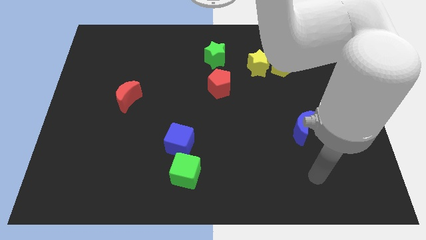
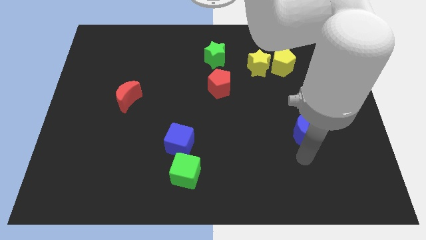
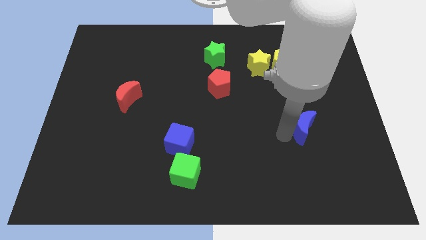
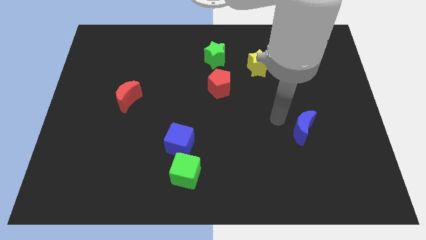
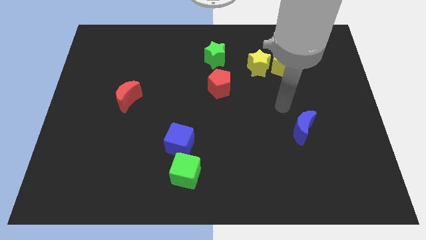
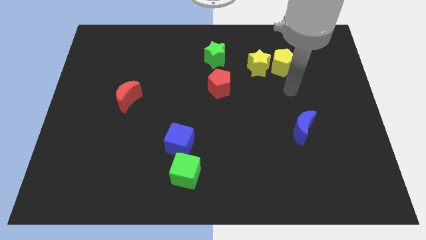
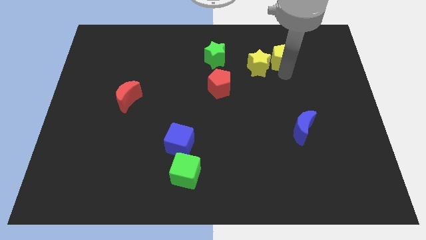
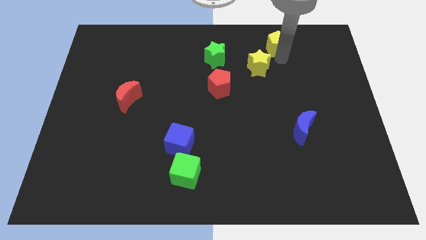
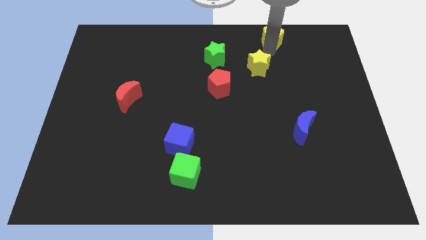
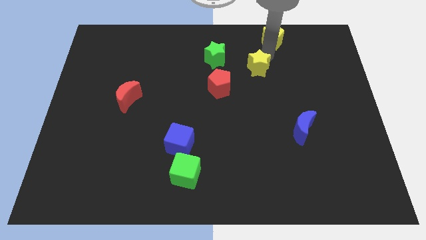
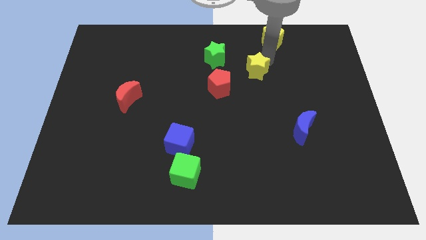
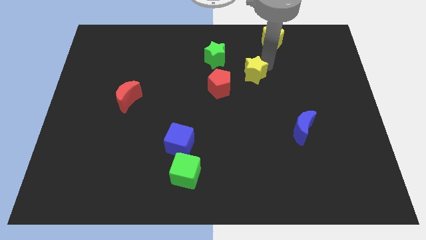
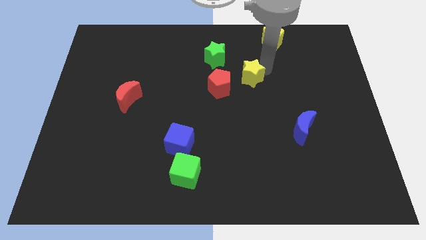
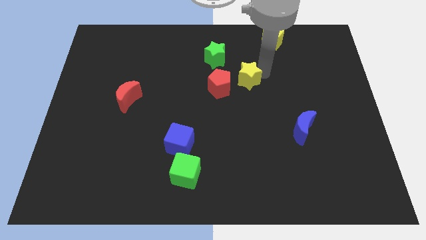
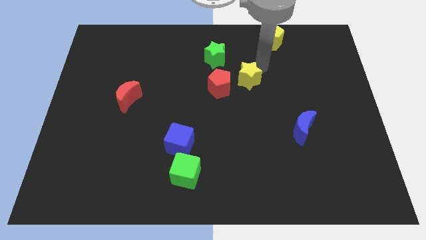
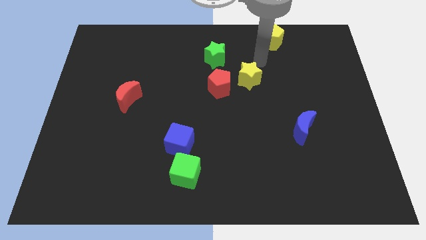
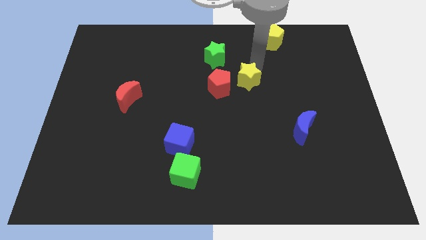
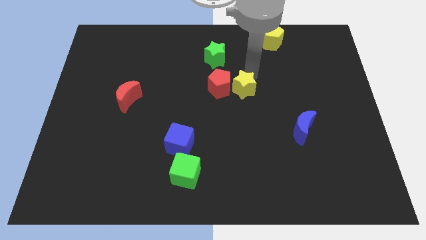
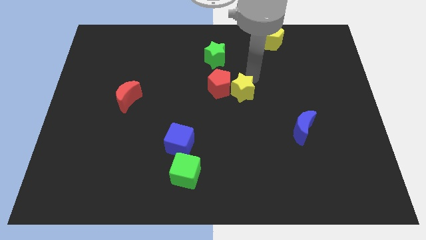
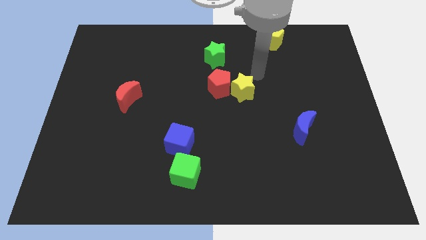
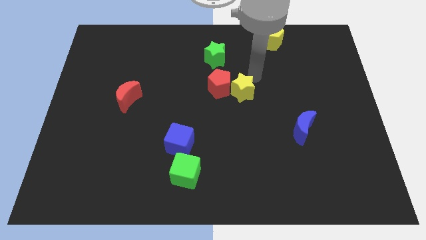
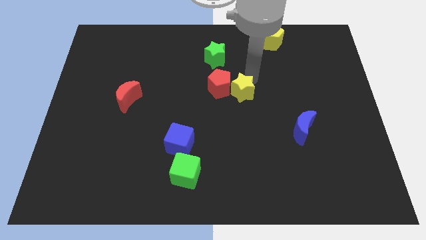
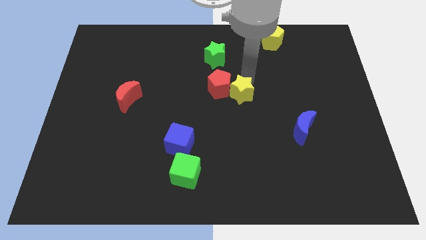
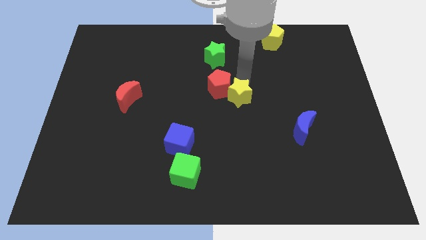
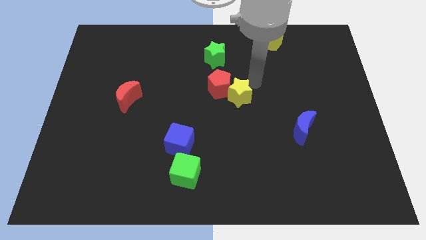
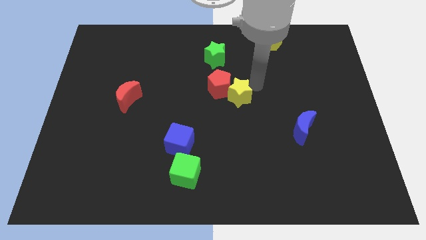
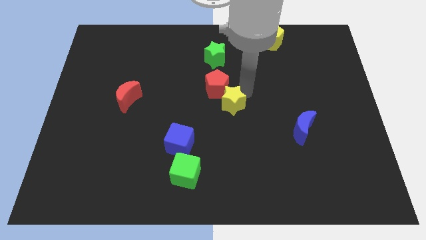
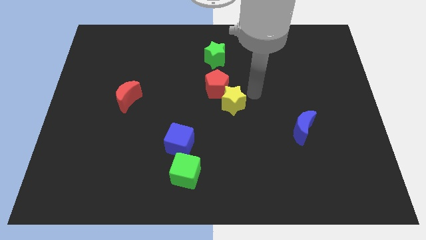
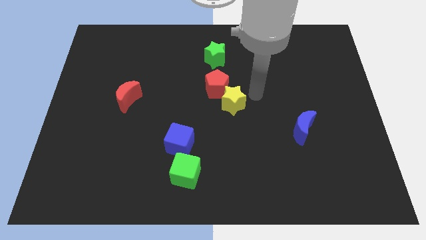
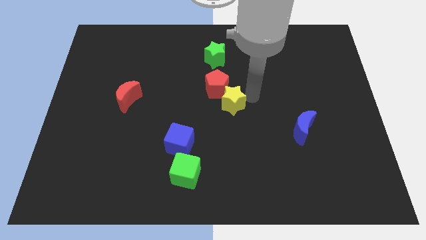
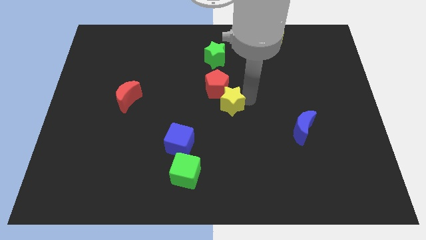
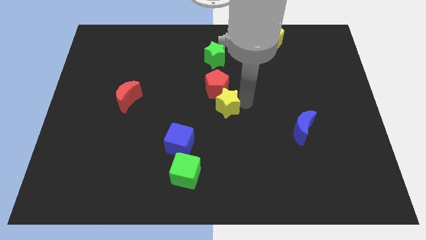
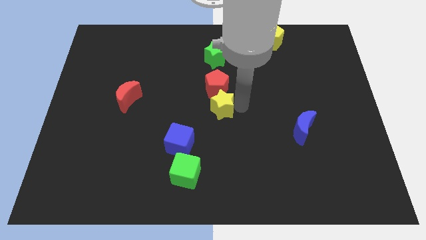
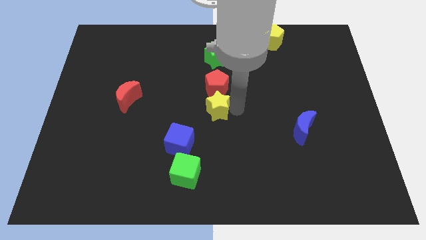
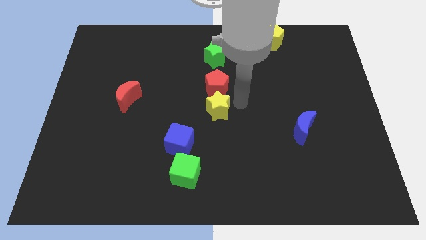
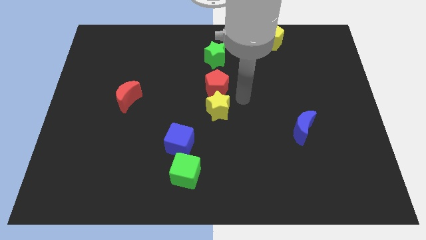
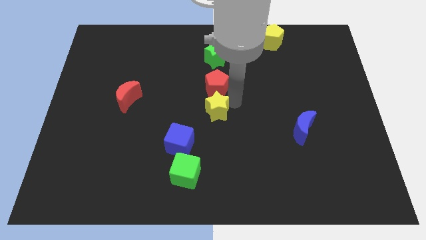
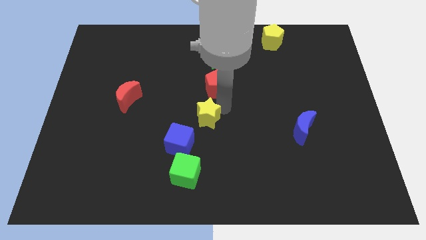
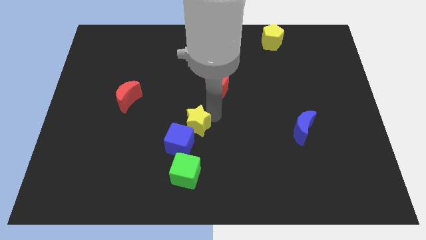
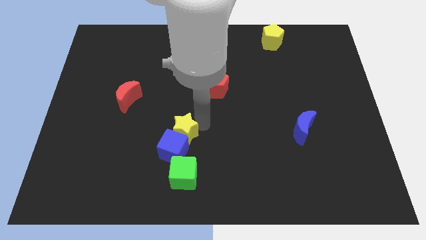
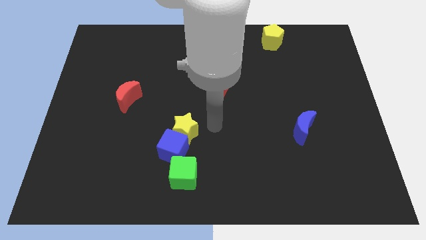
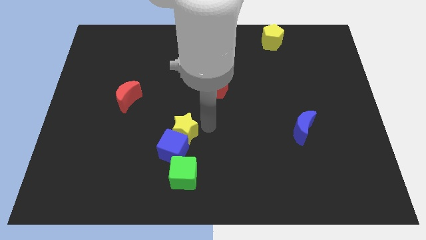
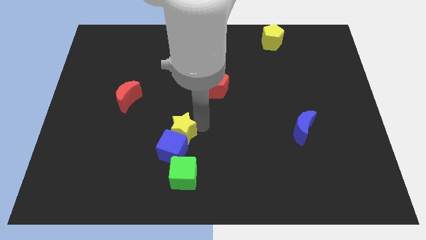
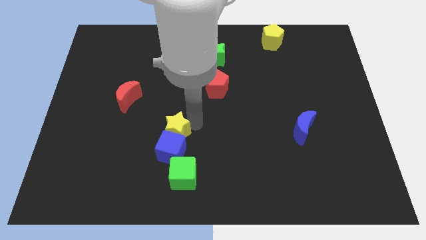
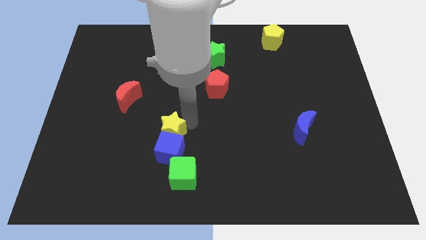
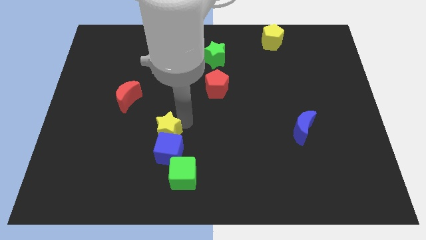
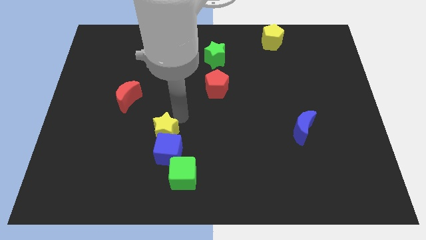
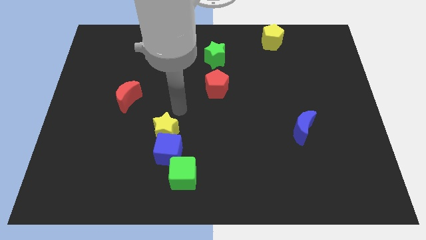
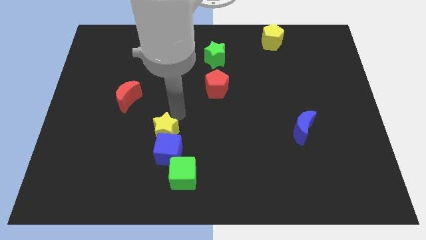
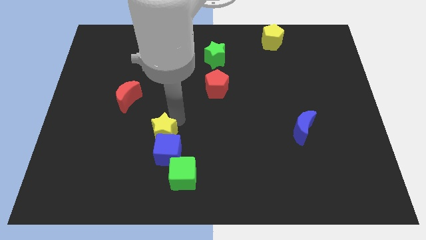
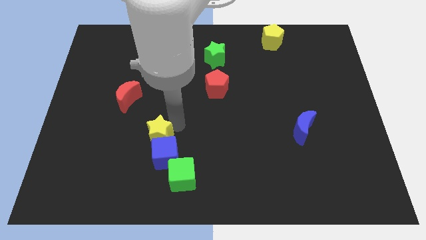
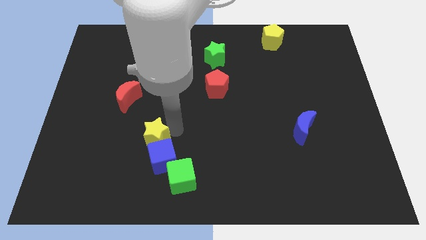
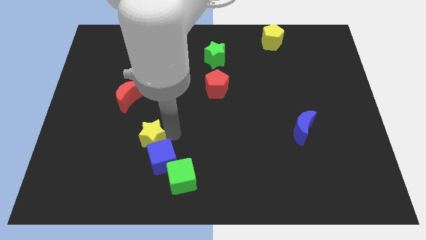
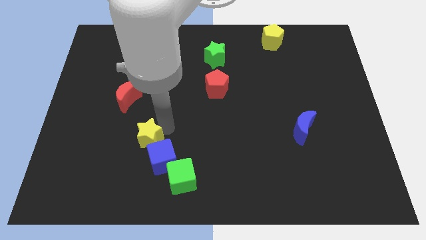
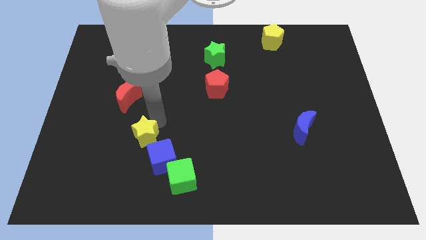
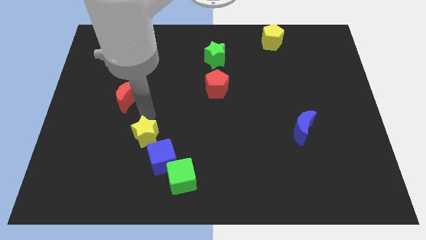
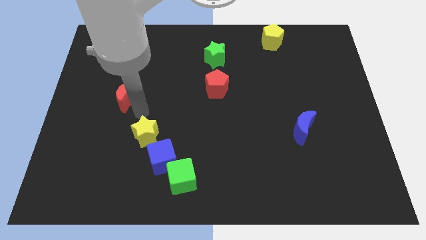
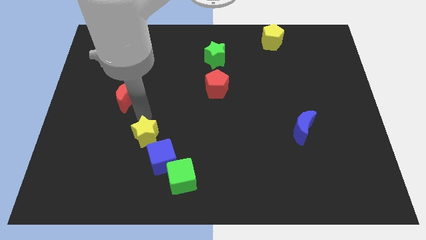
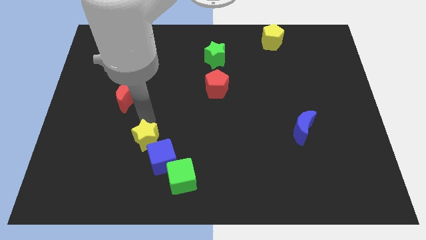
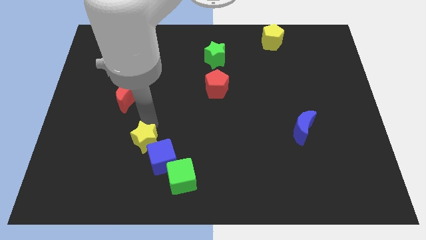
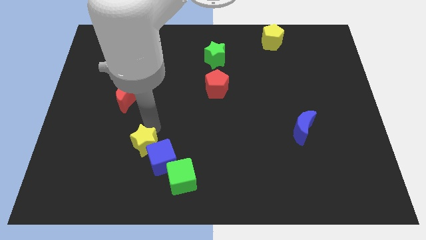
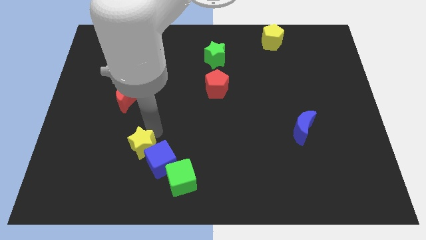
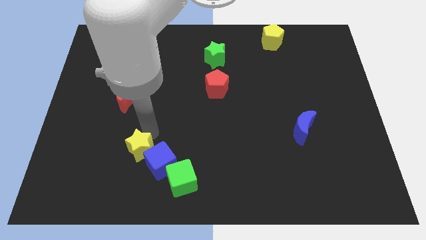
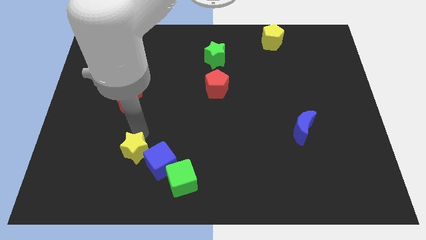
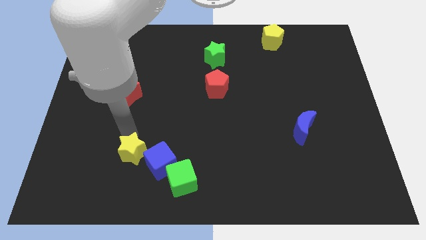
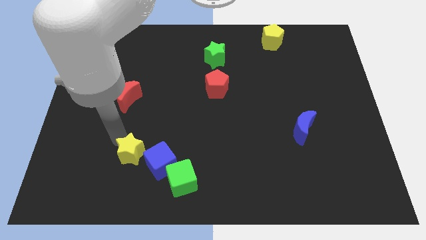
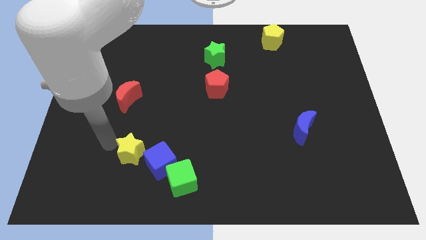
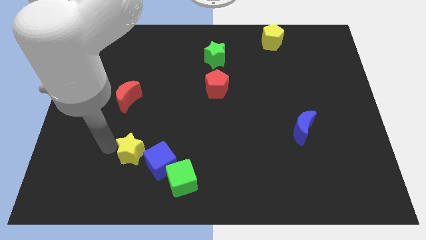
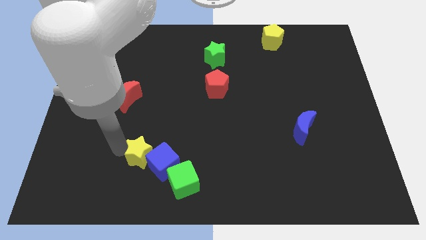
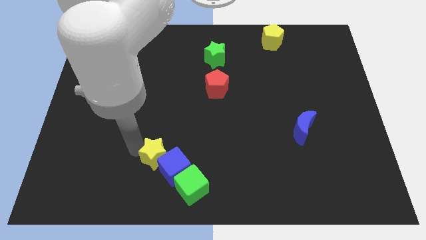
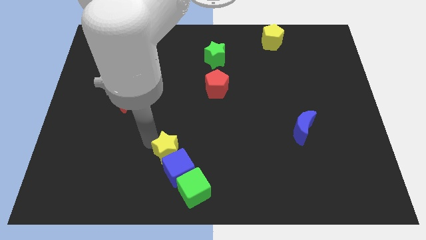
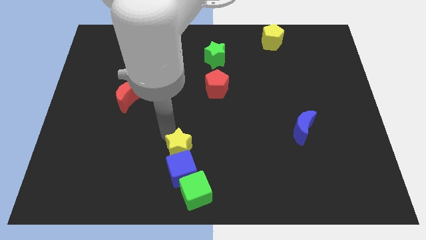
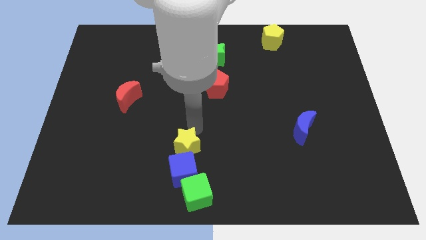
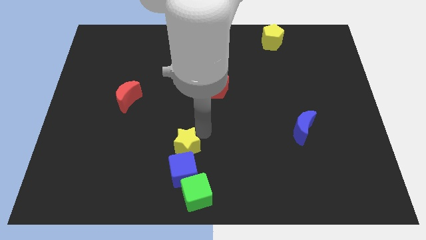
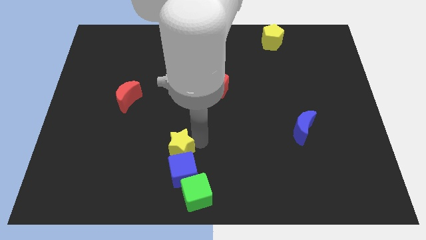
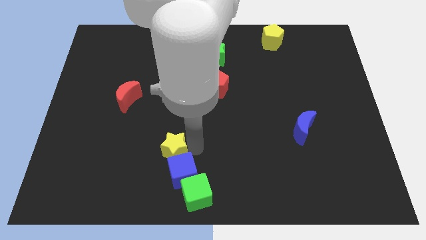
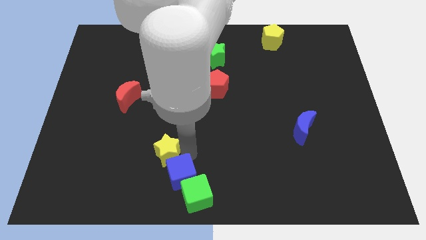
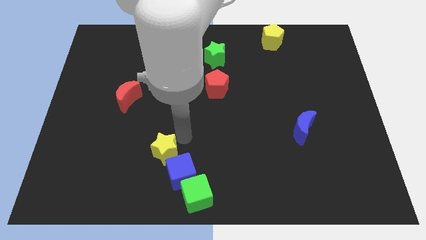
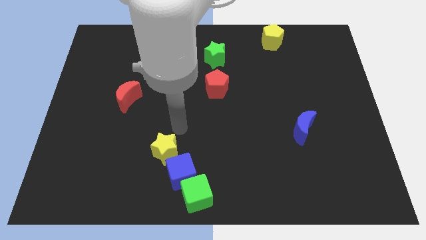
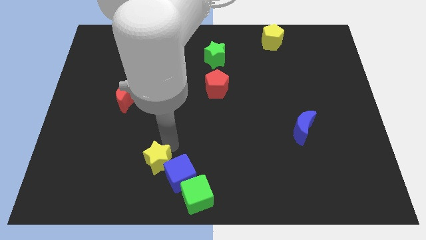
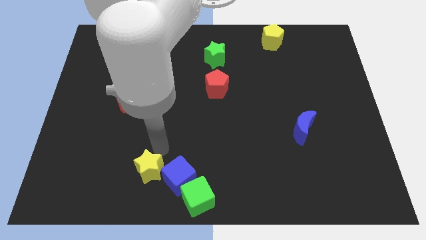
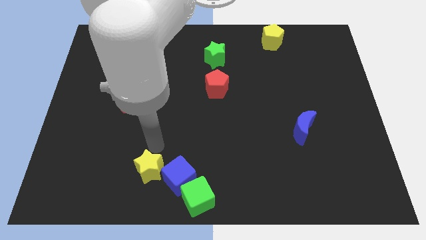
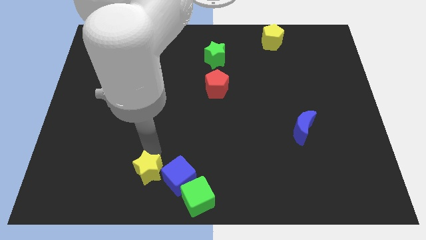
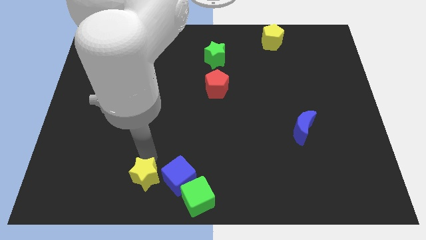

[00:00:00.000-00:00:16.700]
slide the yellow star just left of the green cube
